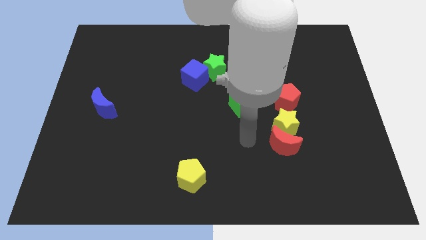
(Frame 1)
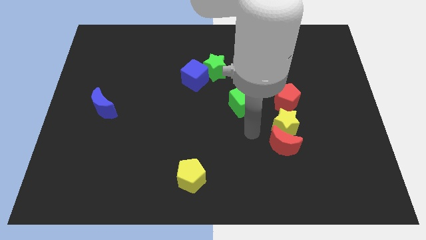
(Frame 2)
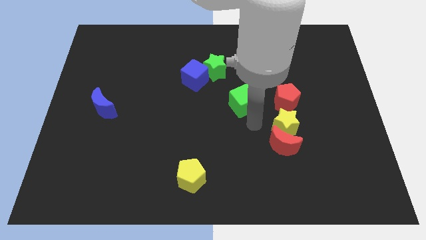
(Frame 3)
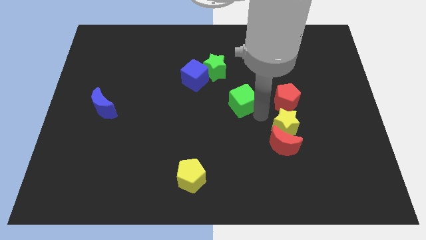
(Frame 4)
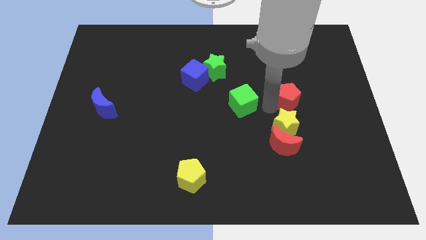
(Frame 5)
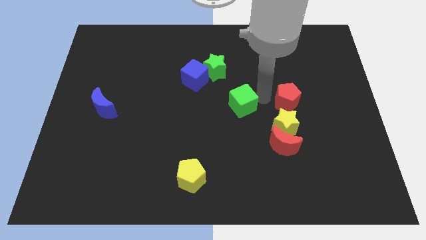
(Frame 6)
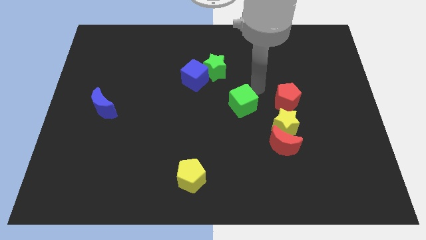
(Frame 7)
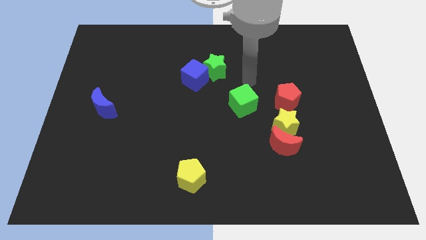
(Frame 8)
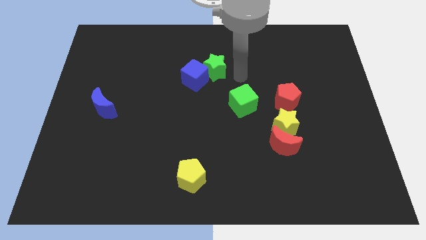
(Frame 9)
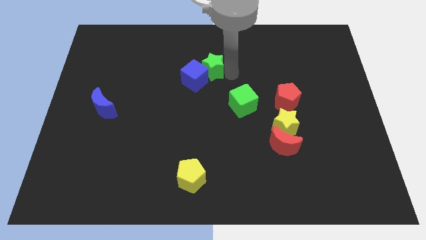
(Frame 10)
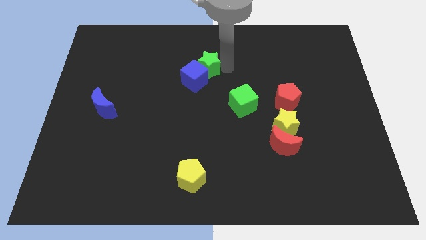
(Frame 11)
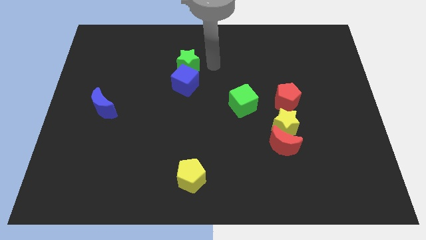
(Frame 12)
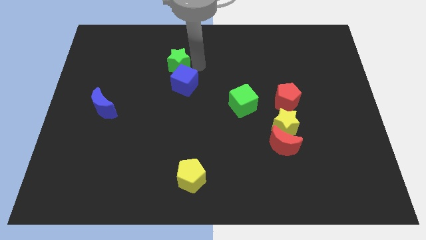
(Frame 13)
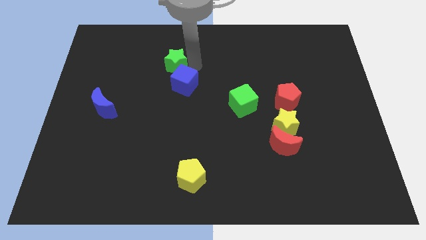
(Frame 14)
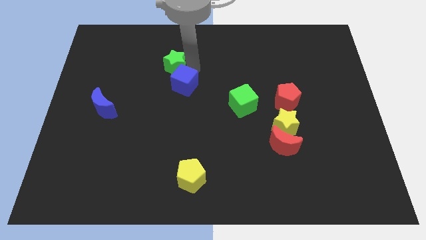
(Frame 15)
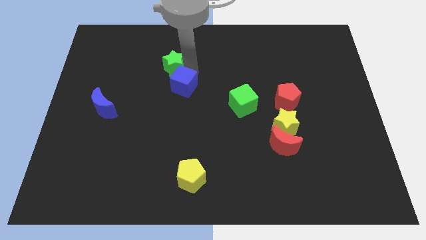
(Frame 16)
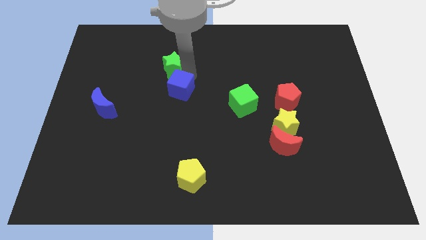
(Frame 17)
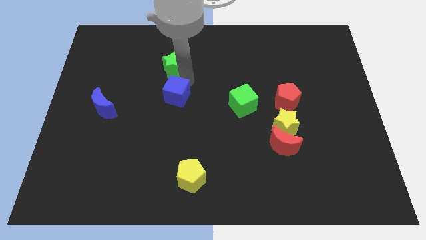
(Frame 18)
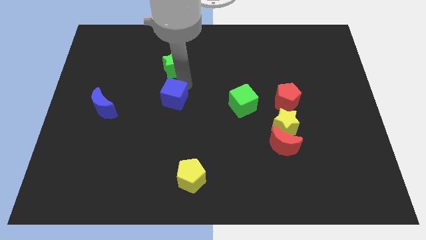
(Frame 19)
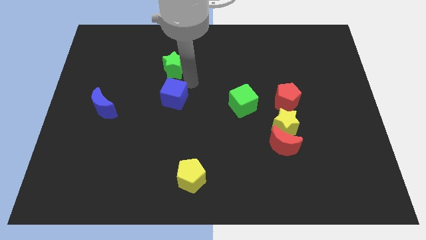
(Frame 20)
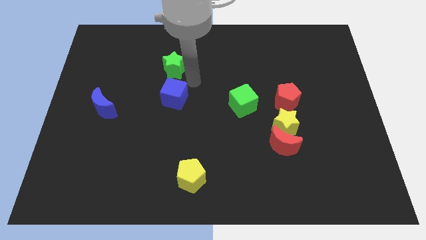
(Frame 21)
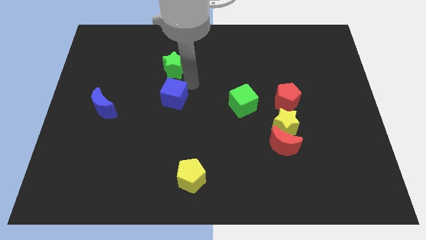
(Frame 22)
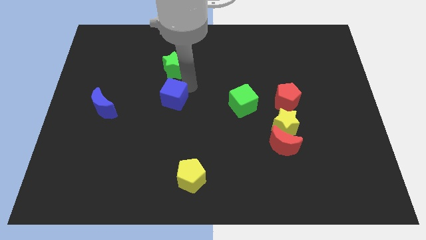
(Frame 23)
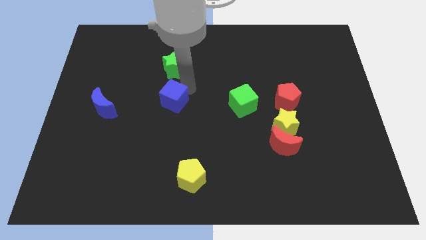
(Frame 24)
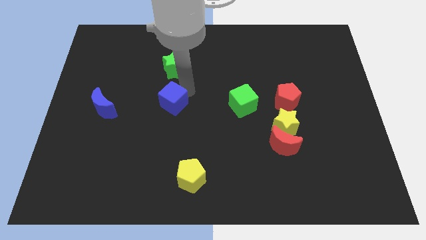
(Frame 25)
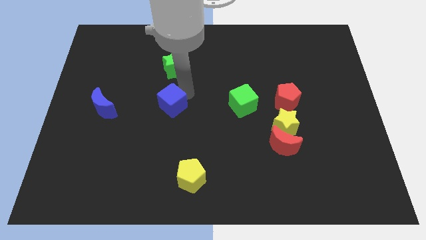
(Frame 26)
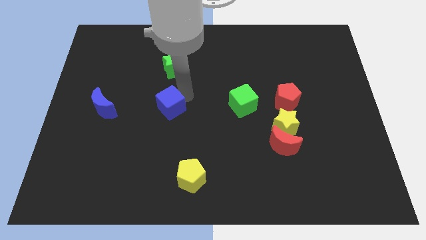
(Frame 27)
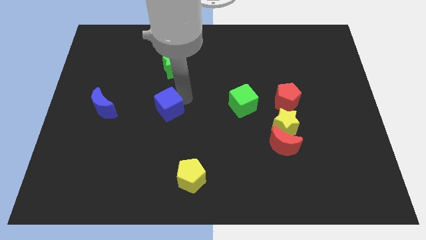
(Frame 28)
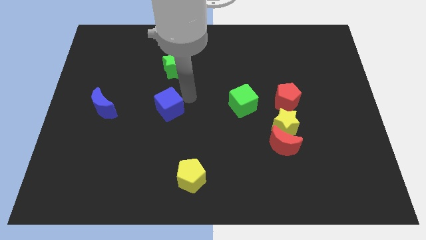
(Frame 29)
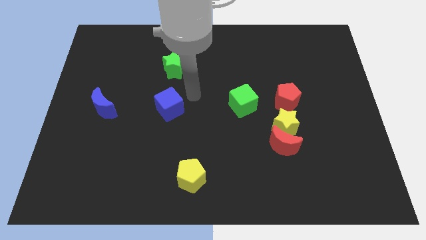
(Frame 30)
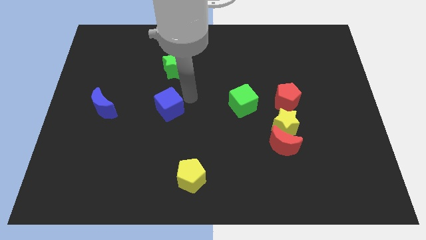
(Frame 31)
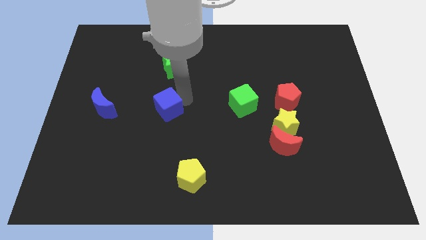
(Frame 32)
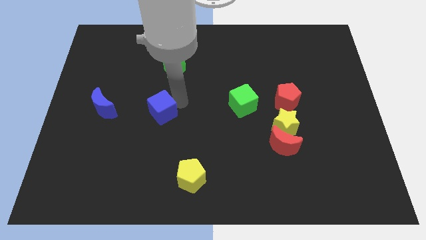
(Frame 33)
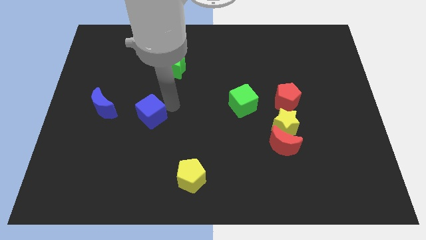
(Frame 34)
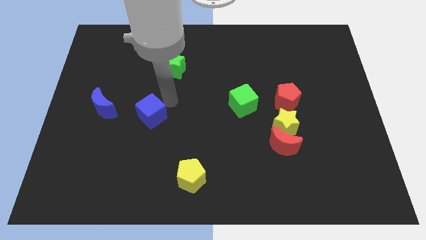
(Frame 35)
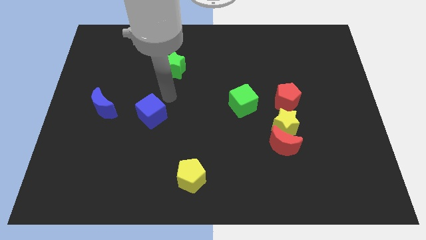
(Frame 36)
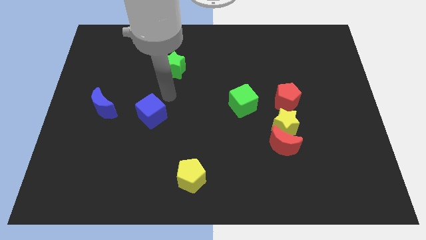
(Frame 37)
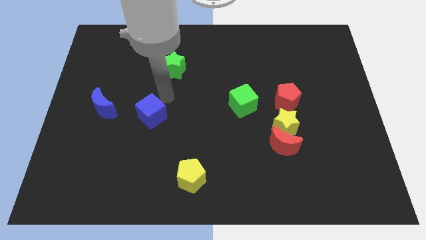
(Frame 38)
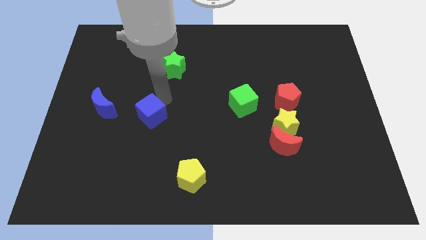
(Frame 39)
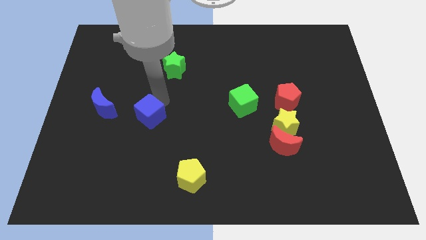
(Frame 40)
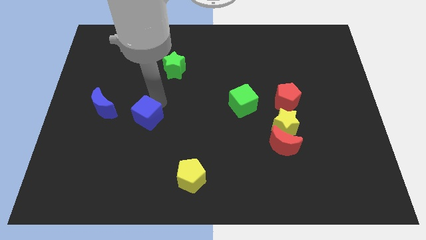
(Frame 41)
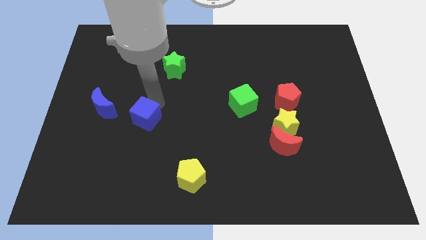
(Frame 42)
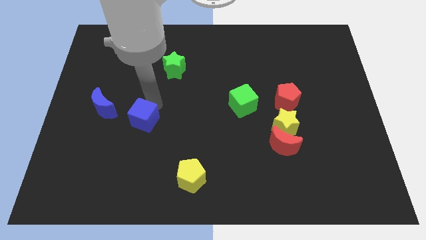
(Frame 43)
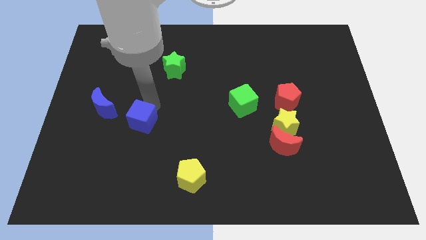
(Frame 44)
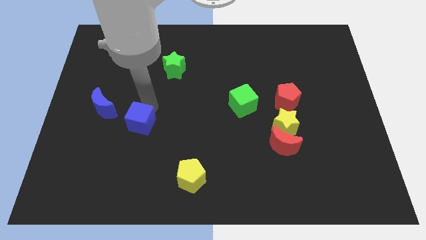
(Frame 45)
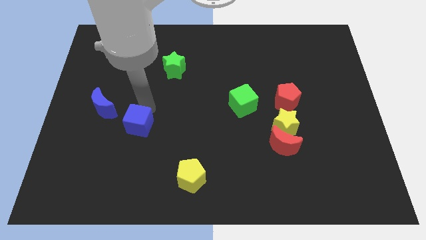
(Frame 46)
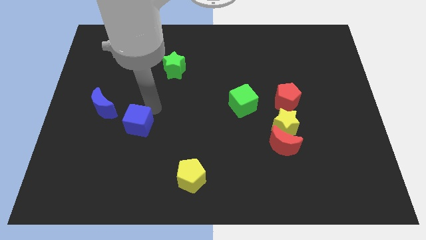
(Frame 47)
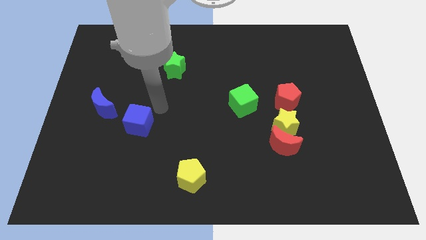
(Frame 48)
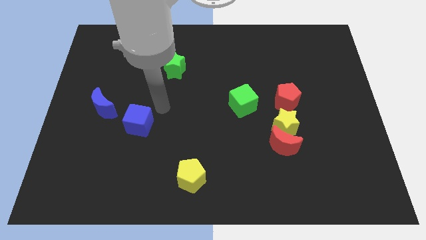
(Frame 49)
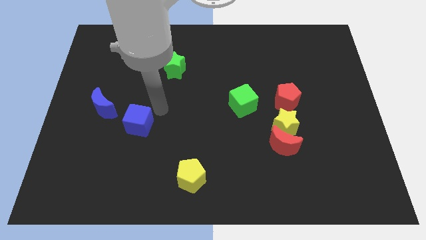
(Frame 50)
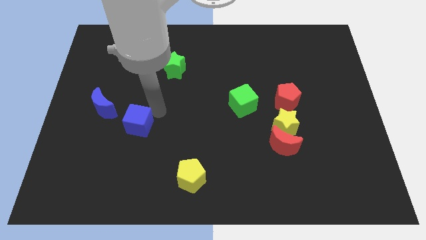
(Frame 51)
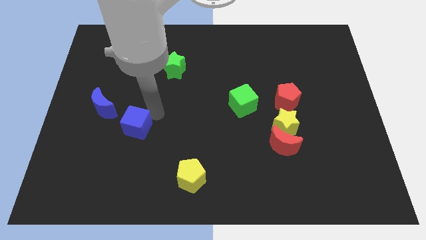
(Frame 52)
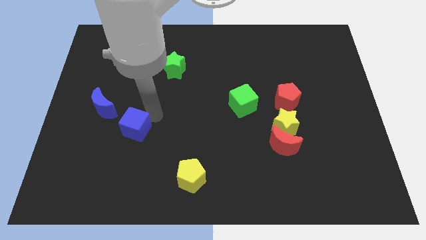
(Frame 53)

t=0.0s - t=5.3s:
push the blue cube diagonally downwards and to the left

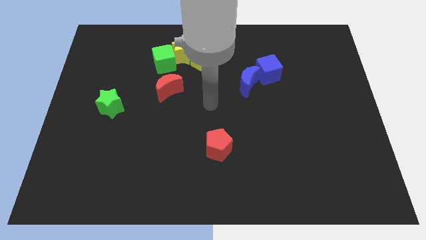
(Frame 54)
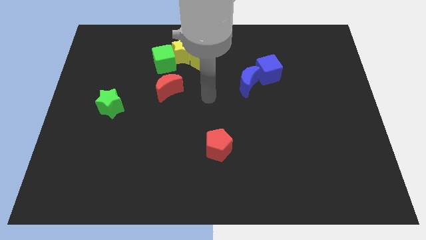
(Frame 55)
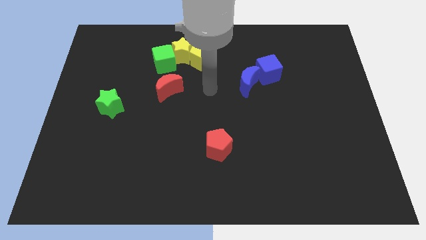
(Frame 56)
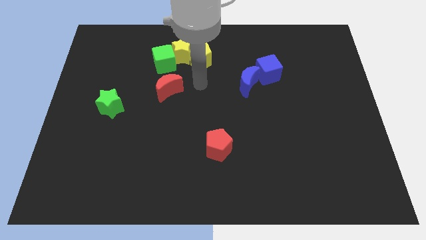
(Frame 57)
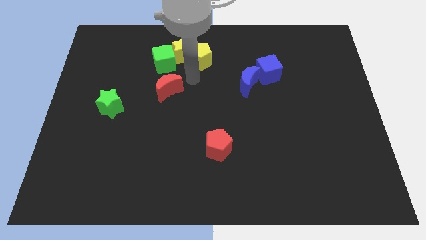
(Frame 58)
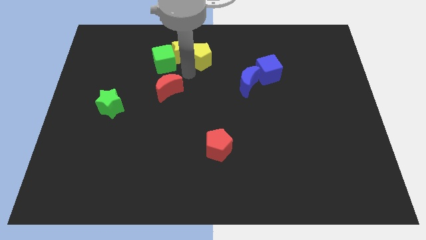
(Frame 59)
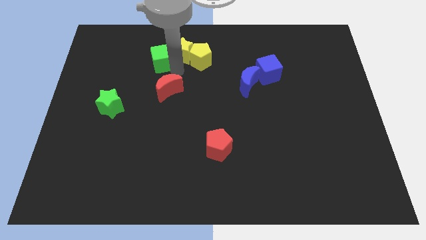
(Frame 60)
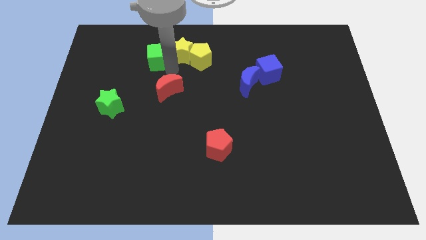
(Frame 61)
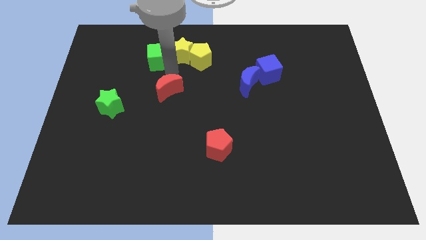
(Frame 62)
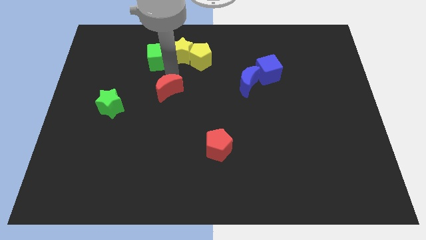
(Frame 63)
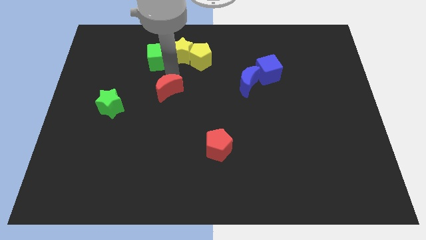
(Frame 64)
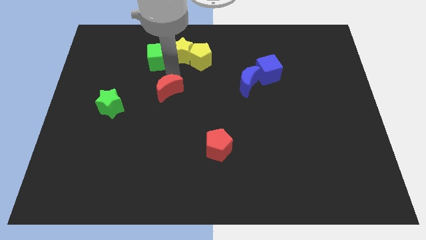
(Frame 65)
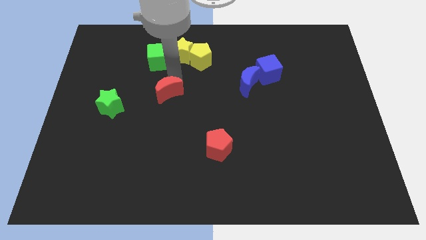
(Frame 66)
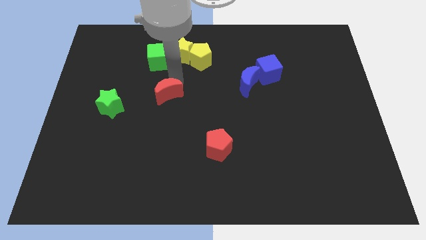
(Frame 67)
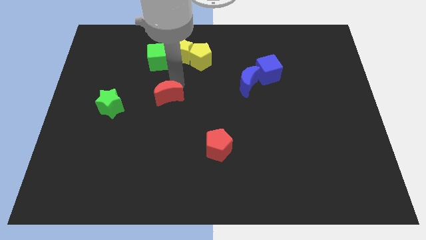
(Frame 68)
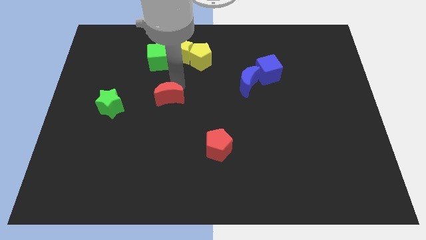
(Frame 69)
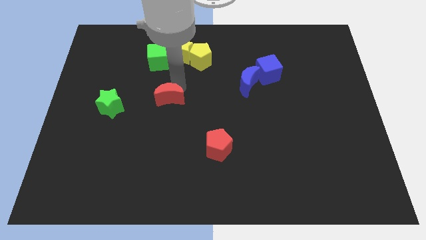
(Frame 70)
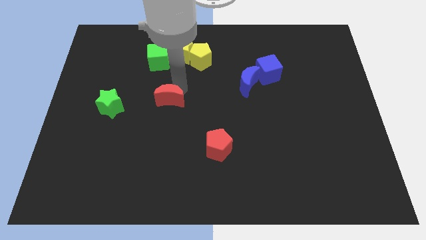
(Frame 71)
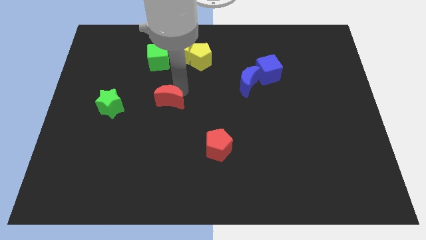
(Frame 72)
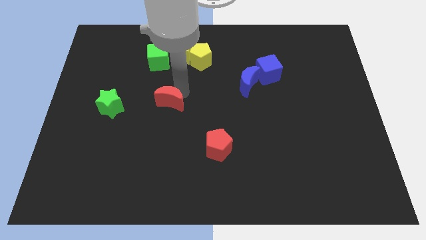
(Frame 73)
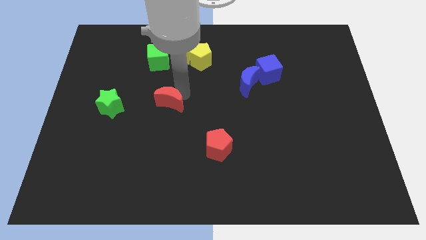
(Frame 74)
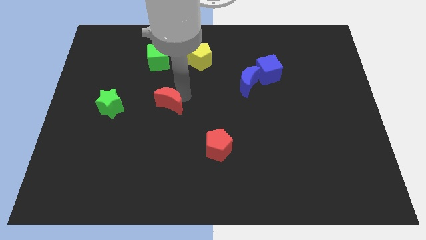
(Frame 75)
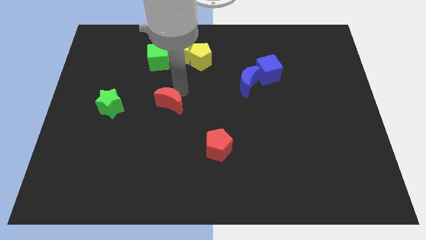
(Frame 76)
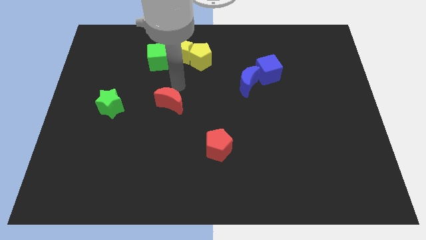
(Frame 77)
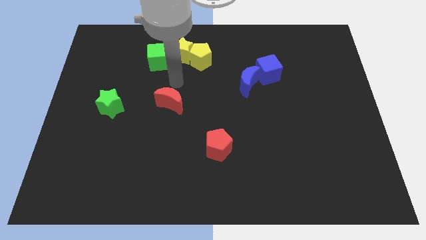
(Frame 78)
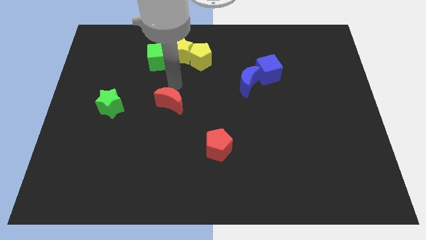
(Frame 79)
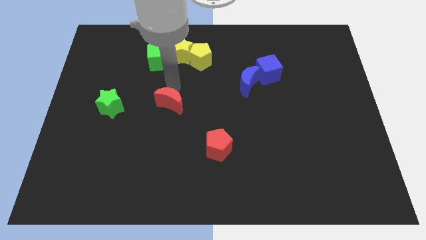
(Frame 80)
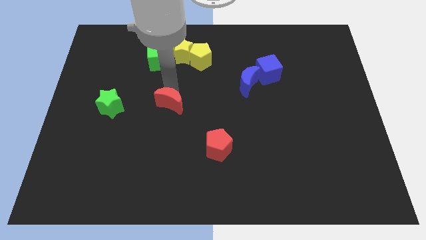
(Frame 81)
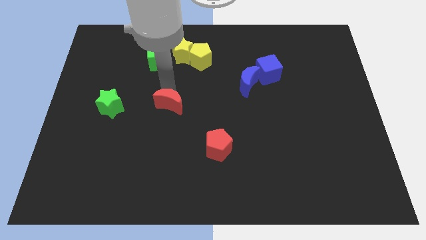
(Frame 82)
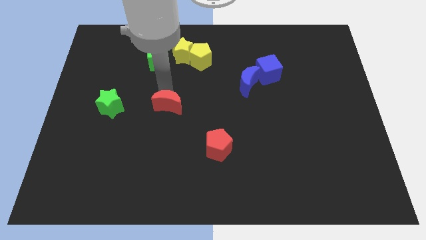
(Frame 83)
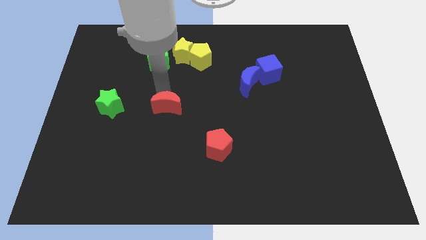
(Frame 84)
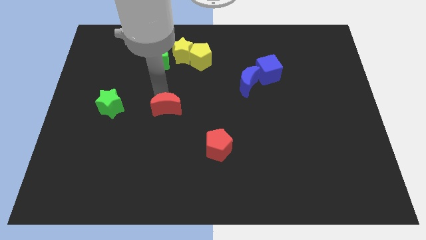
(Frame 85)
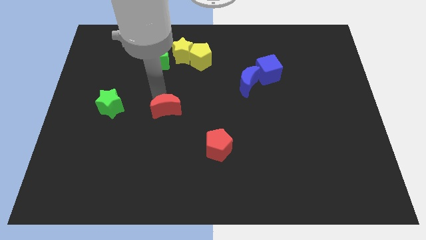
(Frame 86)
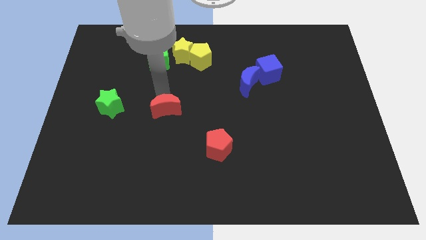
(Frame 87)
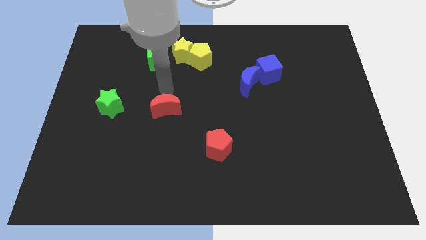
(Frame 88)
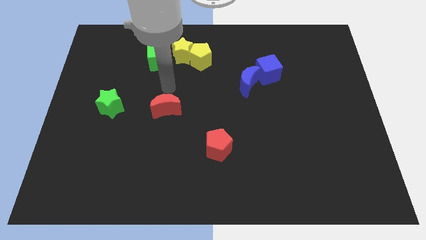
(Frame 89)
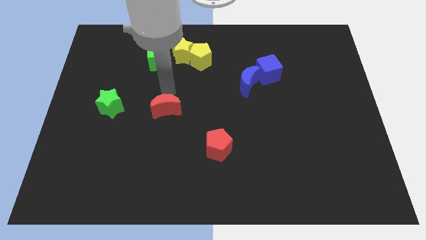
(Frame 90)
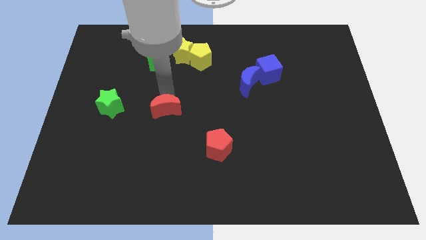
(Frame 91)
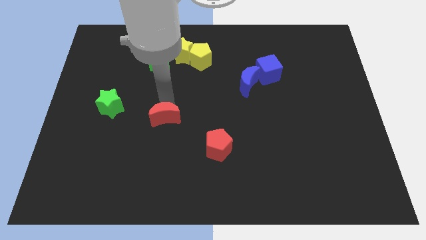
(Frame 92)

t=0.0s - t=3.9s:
push the red moon downwards slightly
